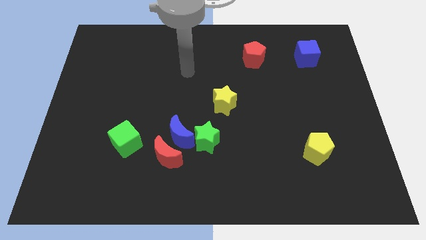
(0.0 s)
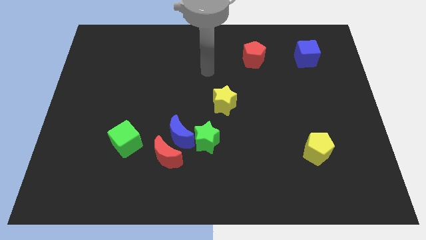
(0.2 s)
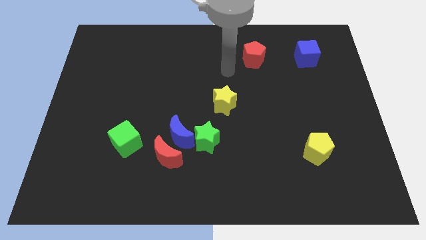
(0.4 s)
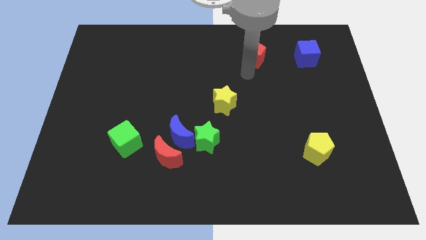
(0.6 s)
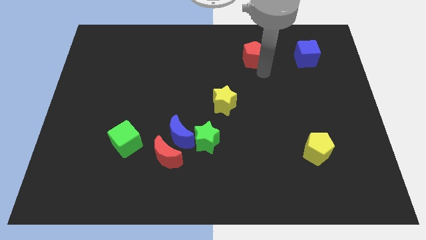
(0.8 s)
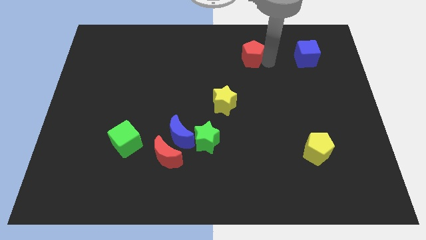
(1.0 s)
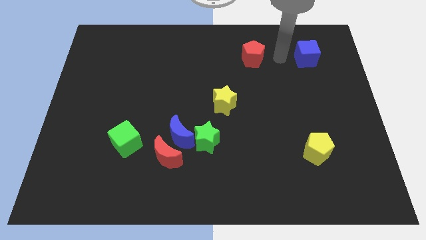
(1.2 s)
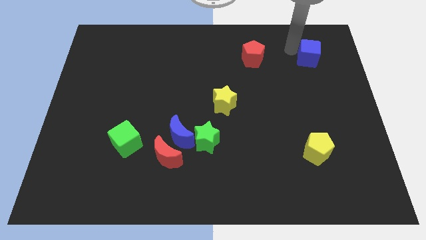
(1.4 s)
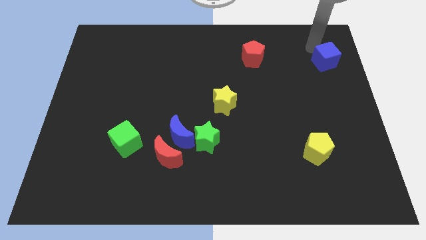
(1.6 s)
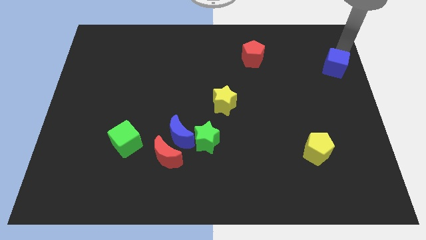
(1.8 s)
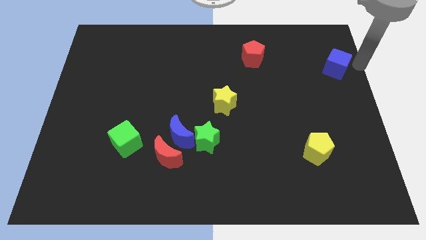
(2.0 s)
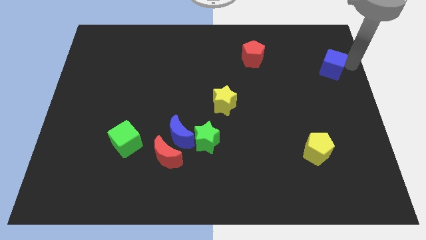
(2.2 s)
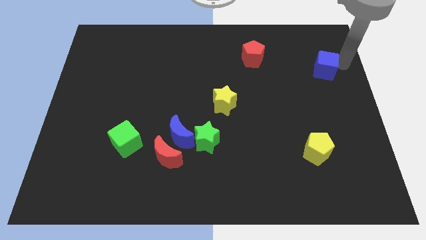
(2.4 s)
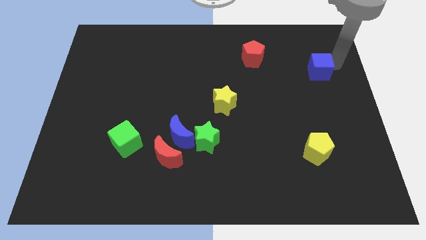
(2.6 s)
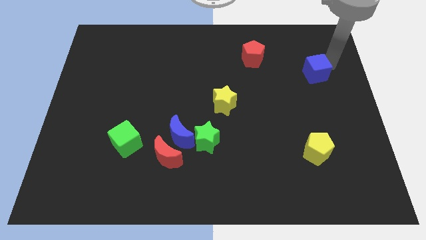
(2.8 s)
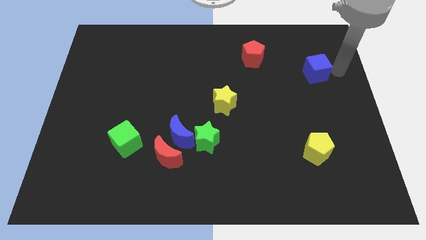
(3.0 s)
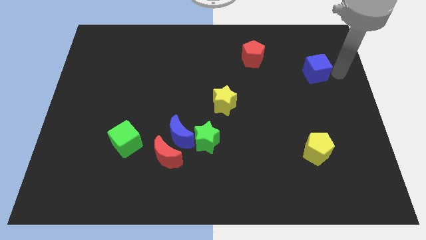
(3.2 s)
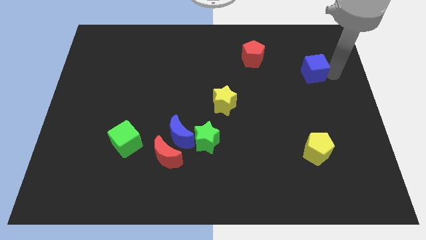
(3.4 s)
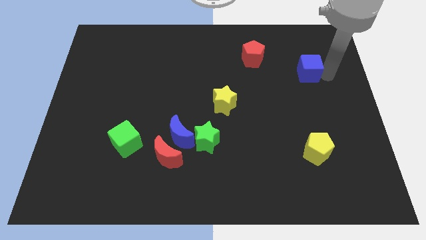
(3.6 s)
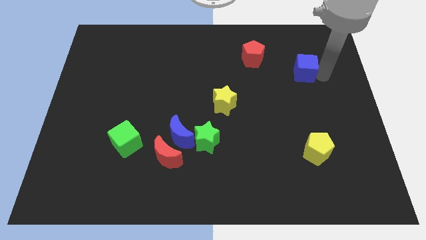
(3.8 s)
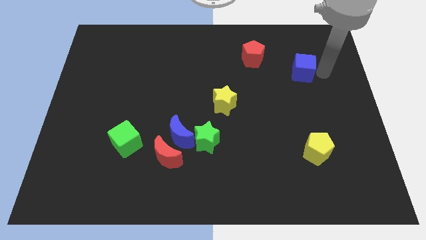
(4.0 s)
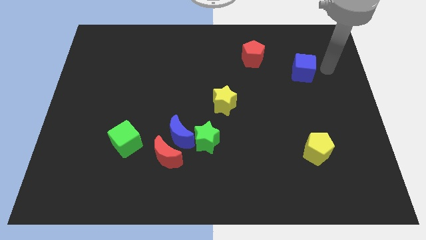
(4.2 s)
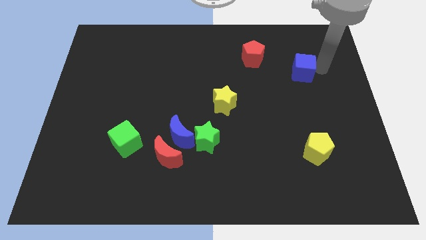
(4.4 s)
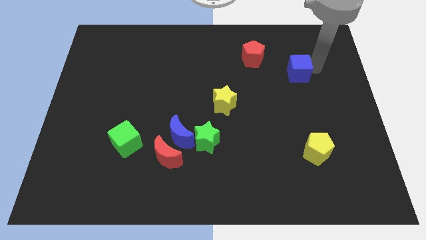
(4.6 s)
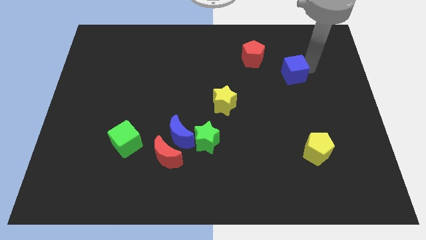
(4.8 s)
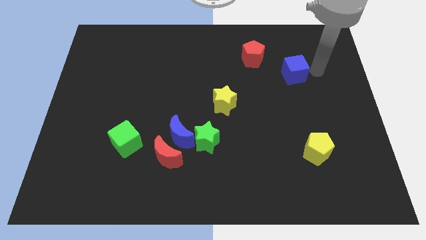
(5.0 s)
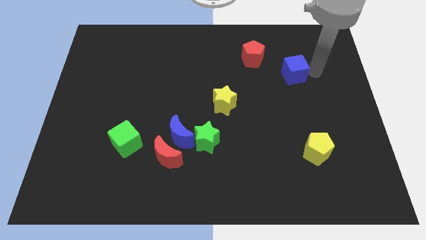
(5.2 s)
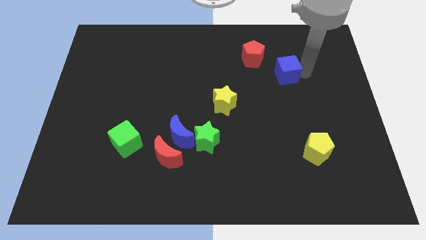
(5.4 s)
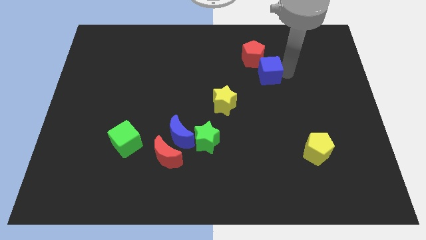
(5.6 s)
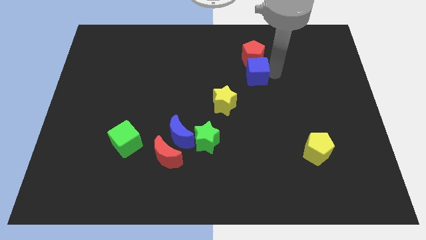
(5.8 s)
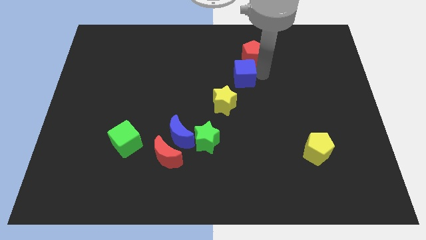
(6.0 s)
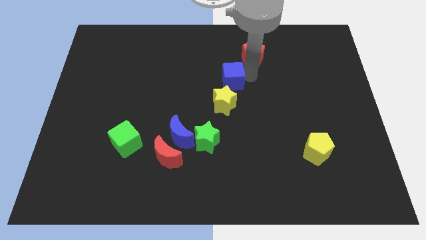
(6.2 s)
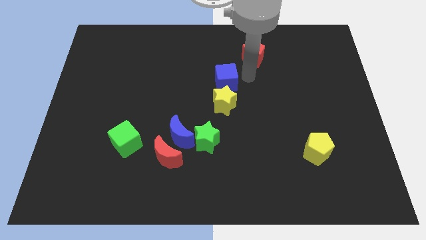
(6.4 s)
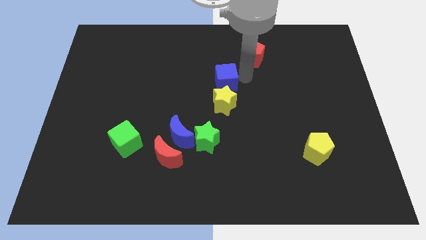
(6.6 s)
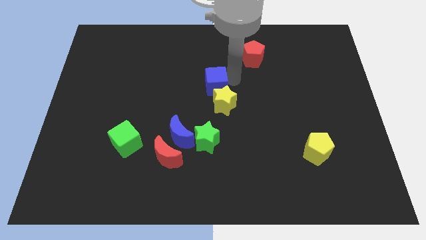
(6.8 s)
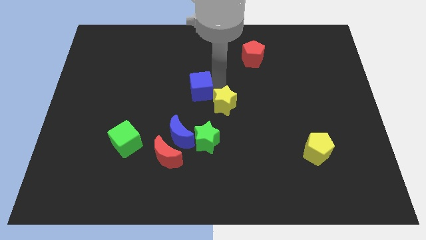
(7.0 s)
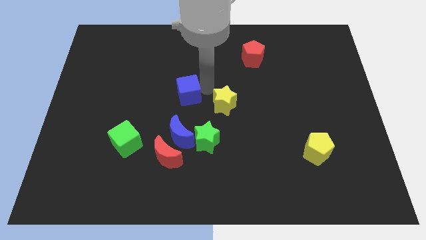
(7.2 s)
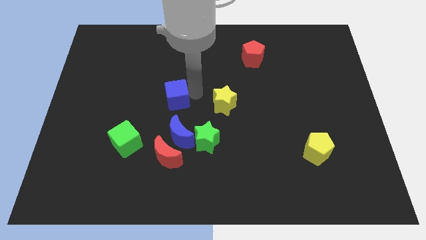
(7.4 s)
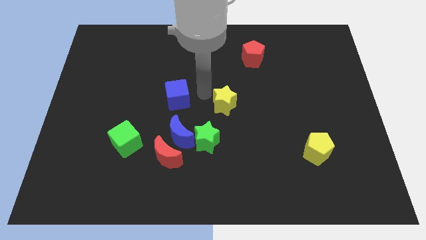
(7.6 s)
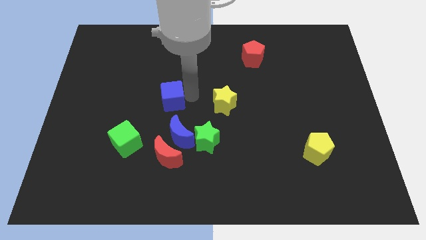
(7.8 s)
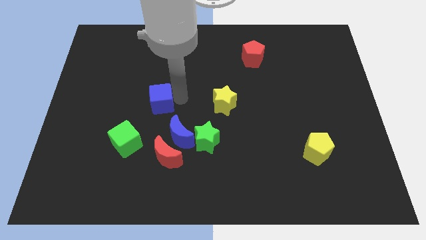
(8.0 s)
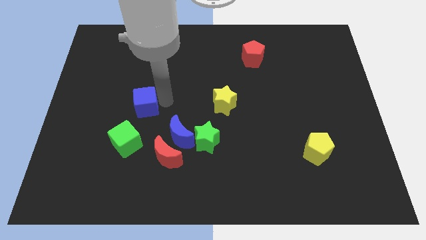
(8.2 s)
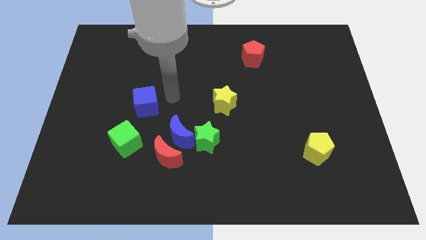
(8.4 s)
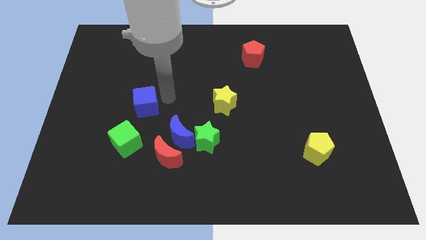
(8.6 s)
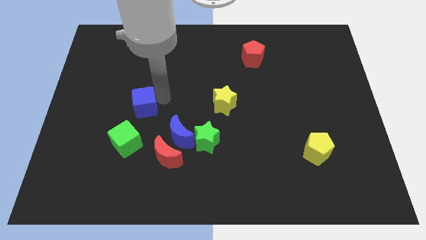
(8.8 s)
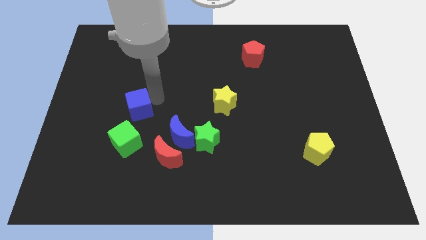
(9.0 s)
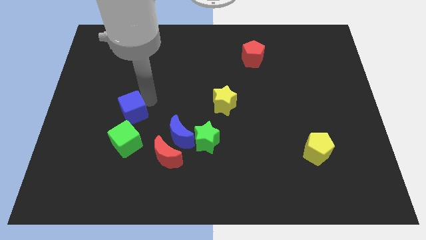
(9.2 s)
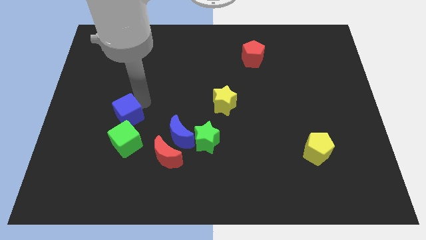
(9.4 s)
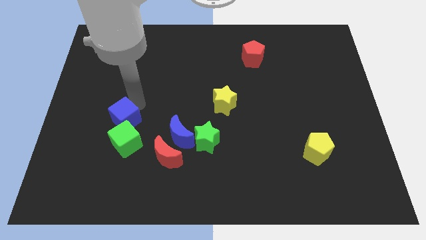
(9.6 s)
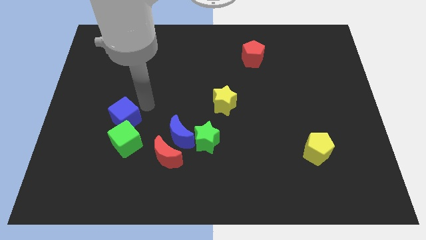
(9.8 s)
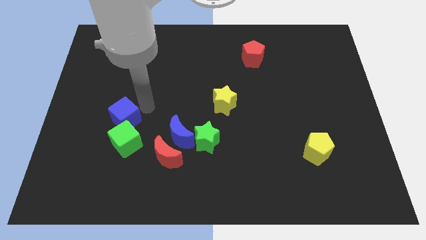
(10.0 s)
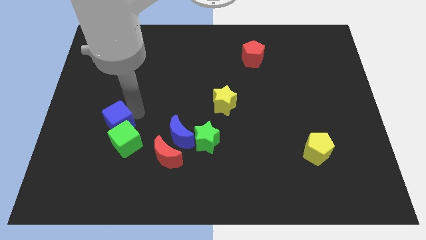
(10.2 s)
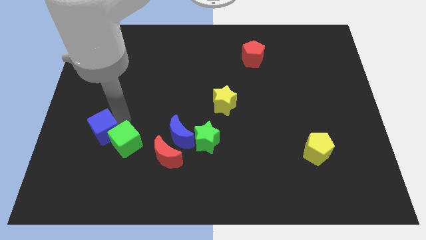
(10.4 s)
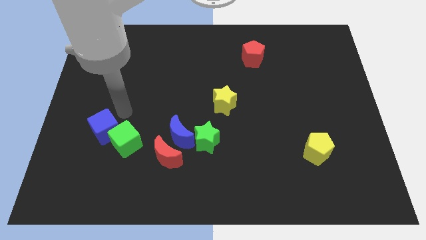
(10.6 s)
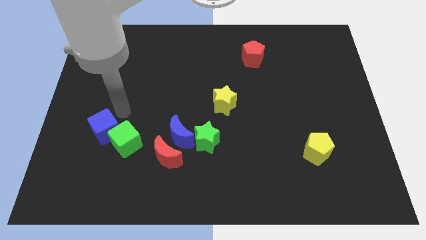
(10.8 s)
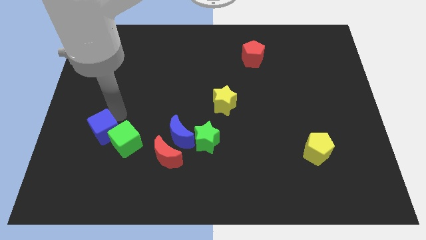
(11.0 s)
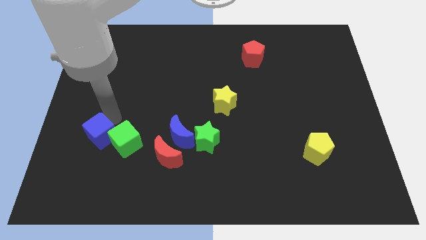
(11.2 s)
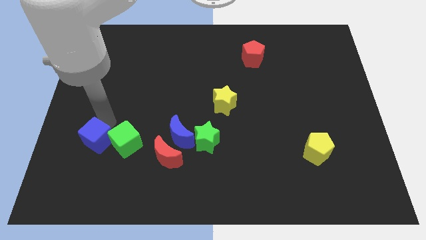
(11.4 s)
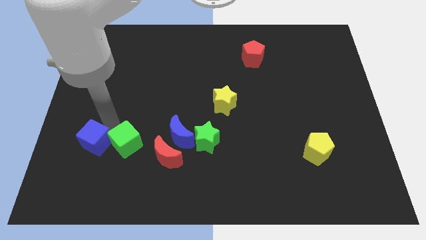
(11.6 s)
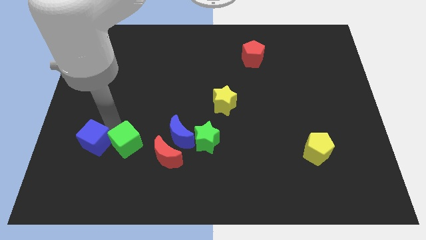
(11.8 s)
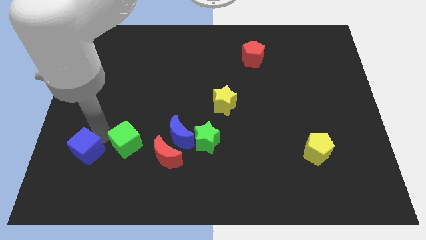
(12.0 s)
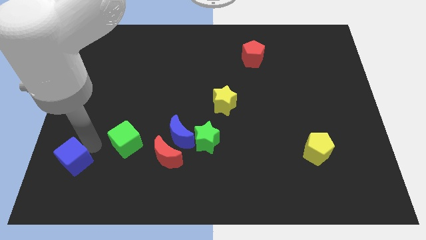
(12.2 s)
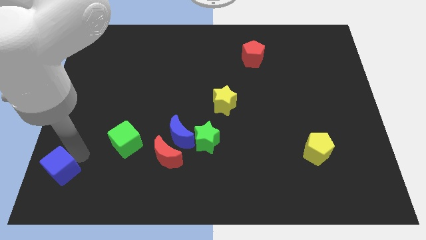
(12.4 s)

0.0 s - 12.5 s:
slide the blue cube to the bottom left corner
